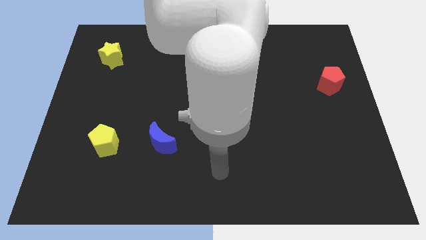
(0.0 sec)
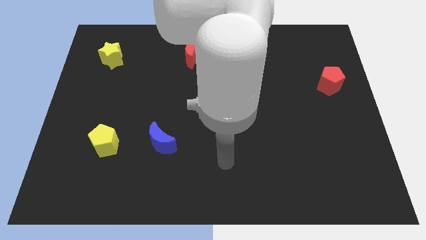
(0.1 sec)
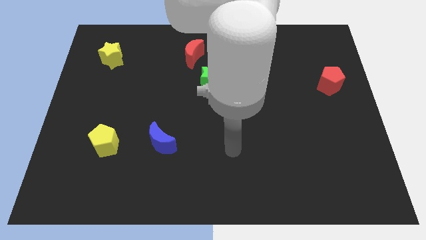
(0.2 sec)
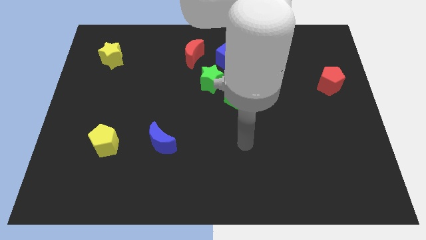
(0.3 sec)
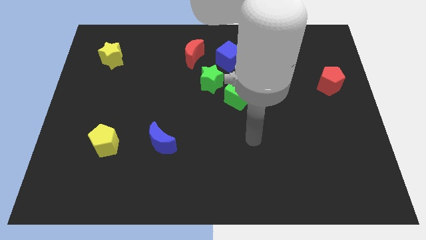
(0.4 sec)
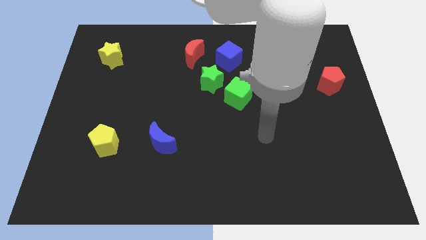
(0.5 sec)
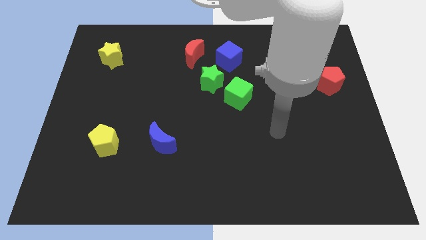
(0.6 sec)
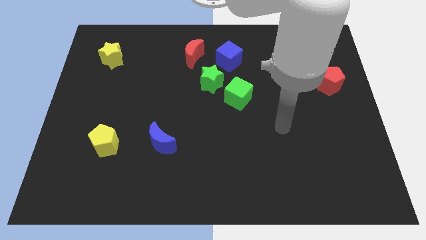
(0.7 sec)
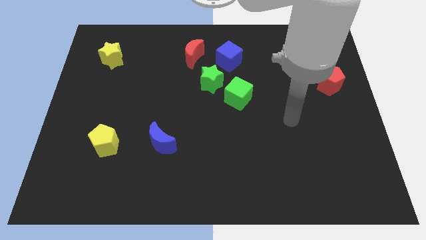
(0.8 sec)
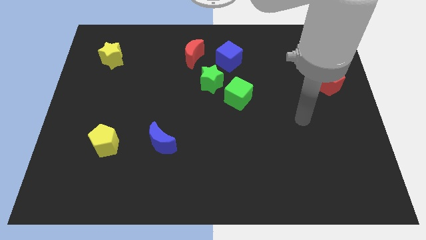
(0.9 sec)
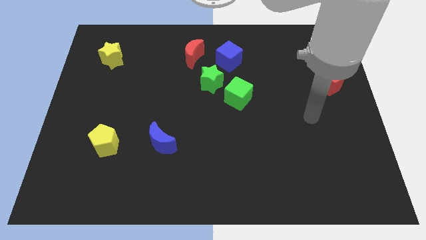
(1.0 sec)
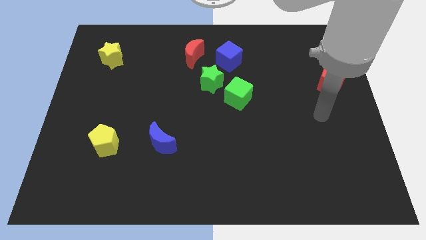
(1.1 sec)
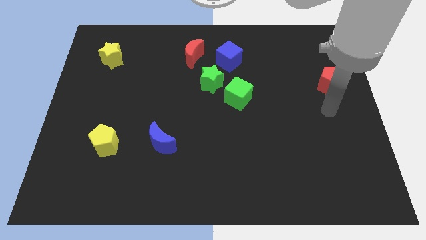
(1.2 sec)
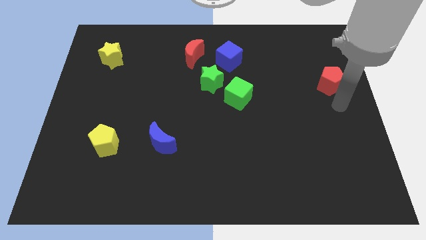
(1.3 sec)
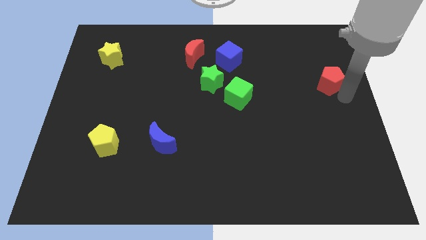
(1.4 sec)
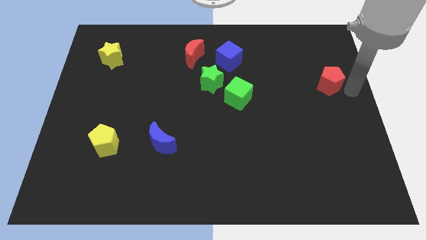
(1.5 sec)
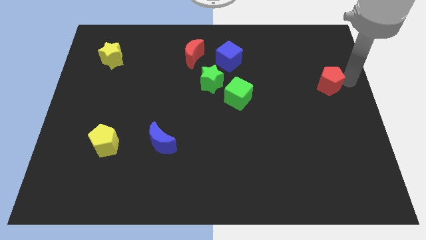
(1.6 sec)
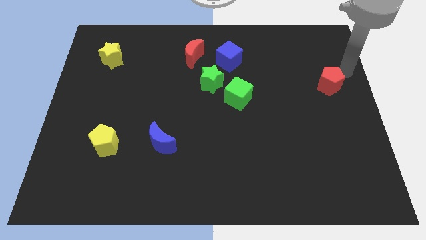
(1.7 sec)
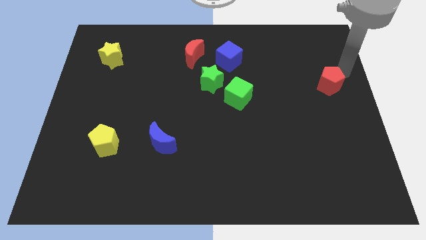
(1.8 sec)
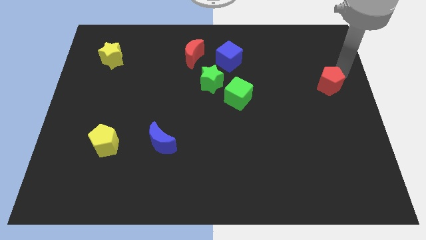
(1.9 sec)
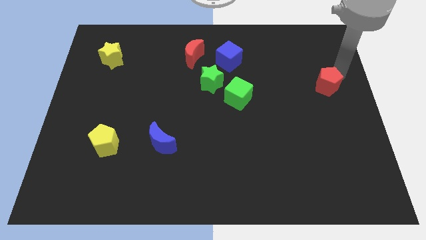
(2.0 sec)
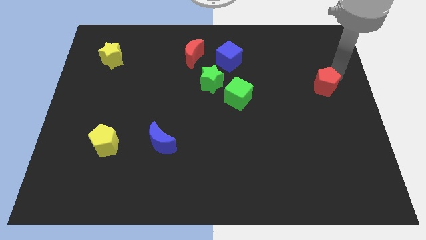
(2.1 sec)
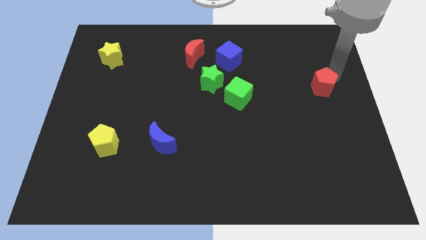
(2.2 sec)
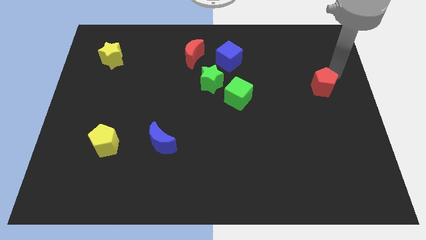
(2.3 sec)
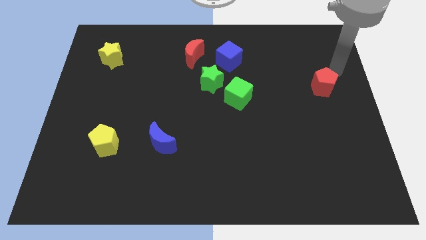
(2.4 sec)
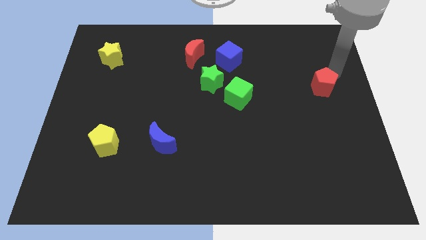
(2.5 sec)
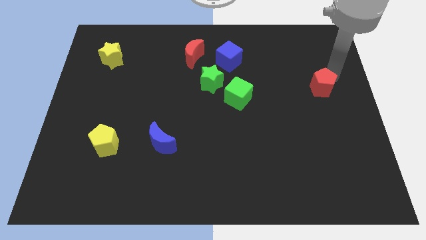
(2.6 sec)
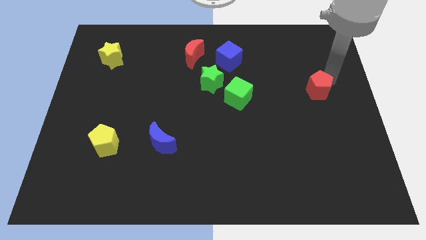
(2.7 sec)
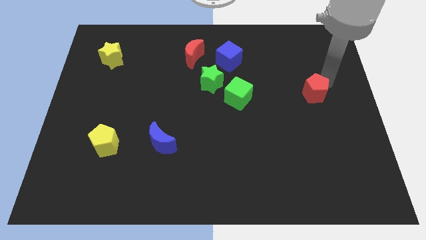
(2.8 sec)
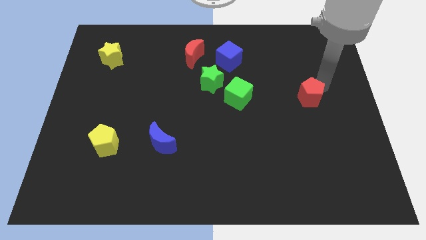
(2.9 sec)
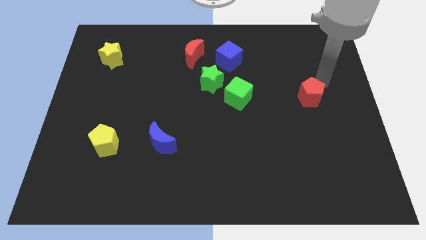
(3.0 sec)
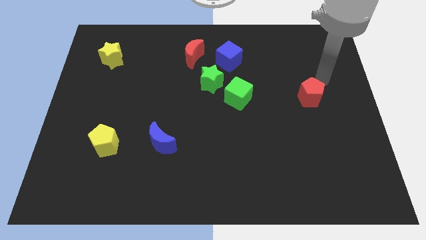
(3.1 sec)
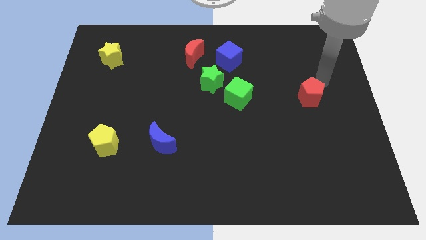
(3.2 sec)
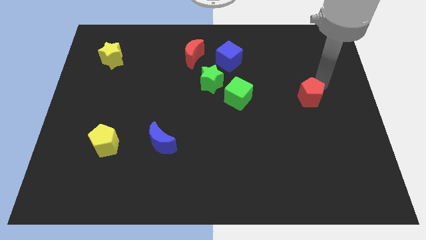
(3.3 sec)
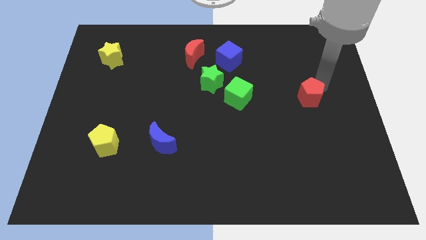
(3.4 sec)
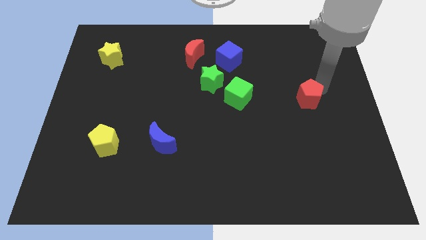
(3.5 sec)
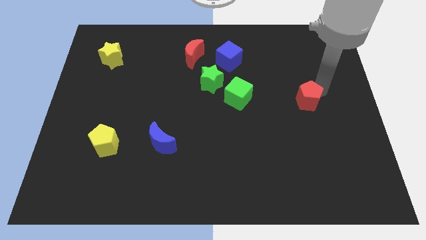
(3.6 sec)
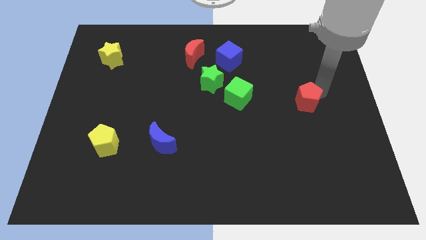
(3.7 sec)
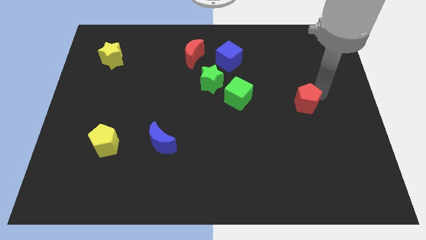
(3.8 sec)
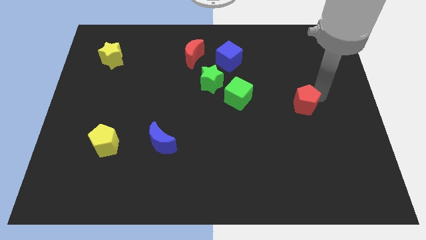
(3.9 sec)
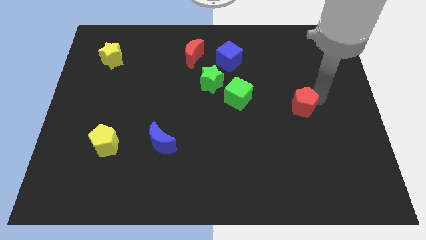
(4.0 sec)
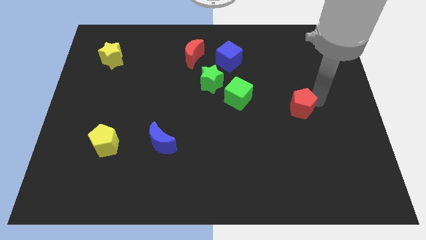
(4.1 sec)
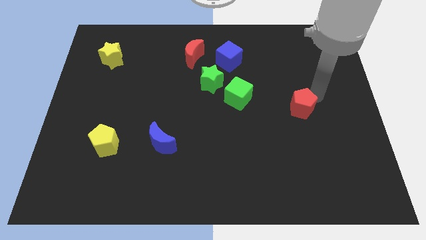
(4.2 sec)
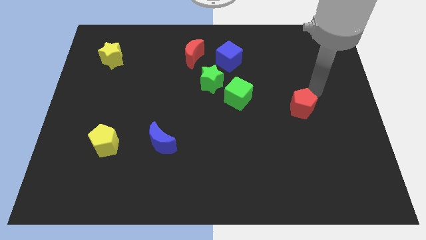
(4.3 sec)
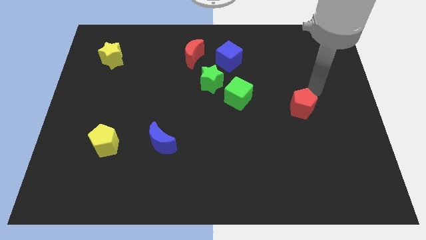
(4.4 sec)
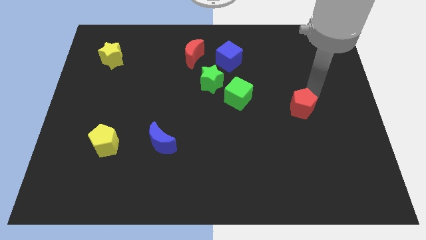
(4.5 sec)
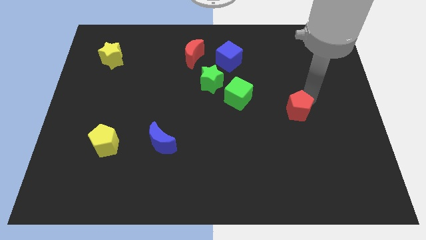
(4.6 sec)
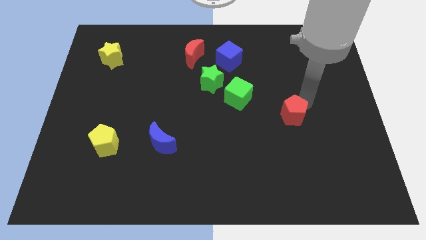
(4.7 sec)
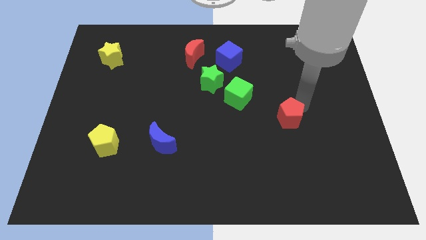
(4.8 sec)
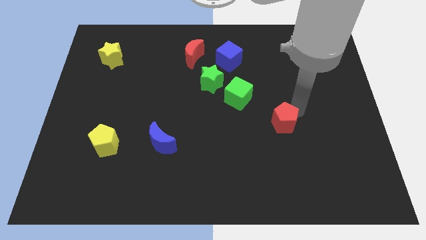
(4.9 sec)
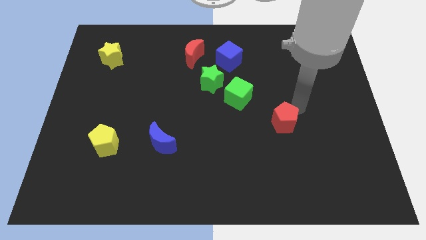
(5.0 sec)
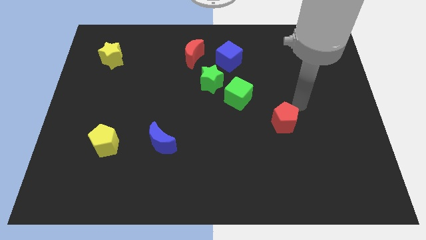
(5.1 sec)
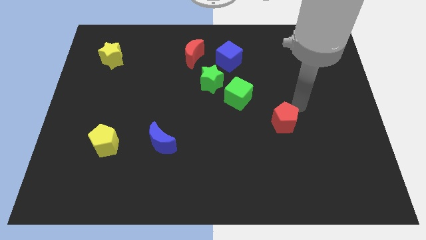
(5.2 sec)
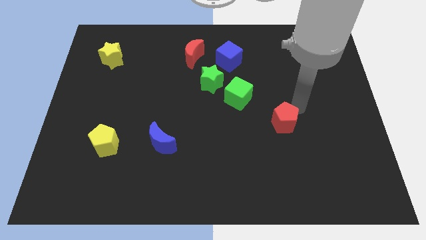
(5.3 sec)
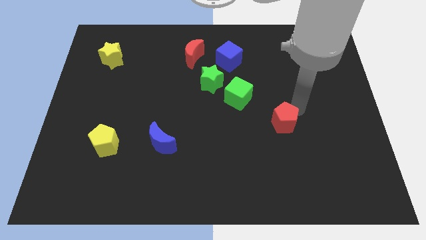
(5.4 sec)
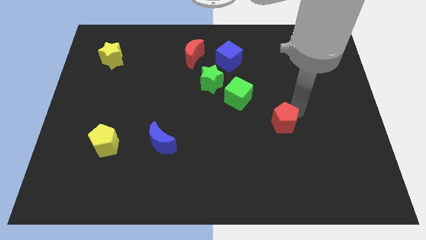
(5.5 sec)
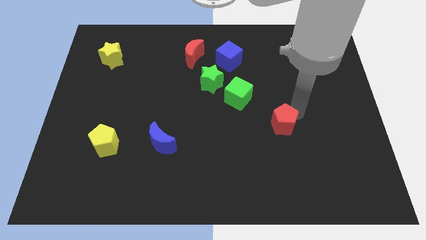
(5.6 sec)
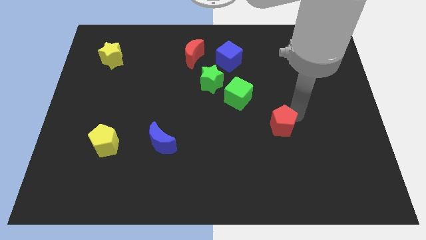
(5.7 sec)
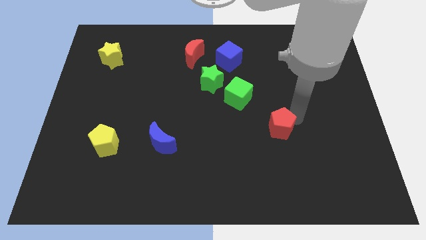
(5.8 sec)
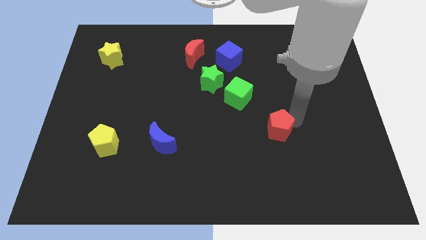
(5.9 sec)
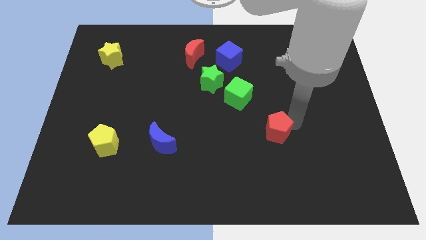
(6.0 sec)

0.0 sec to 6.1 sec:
push the red pentagon down and to the left

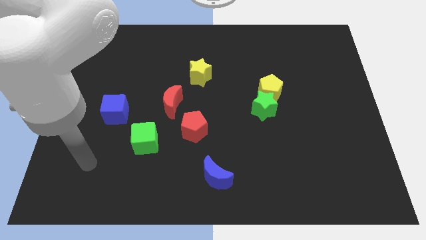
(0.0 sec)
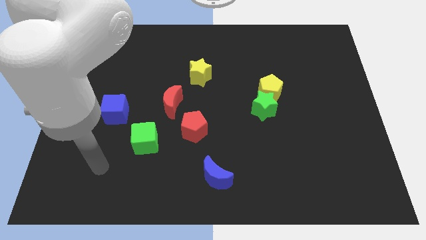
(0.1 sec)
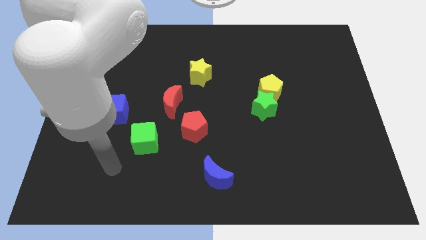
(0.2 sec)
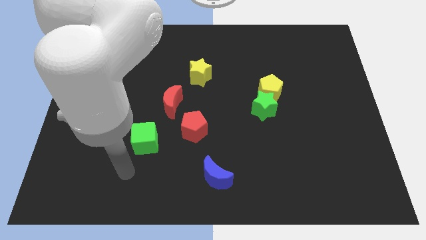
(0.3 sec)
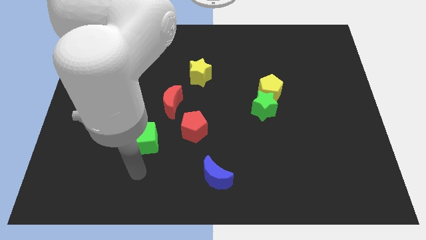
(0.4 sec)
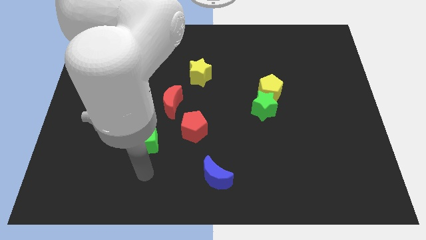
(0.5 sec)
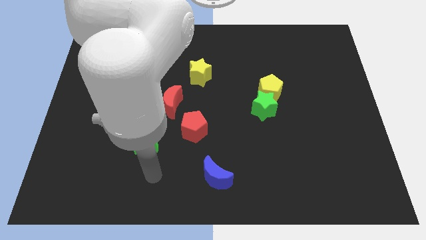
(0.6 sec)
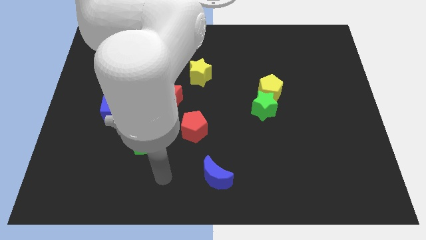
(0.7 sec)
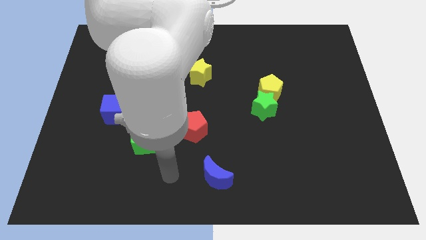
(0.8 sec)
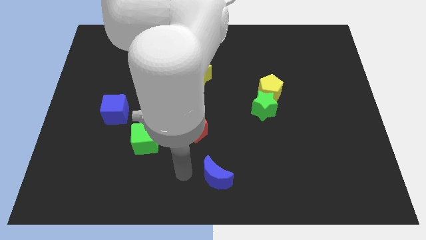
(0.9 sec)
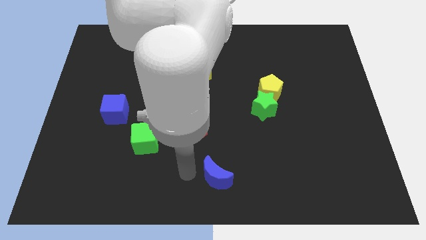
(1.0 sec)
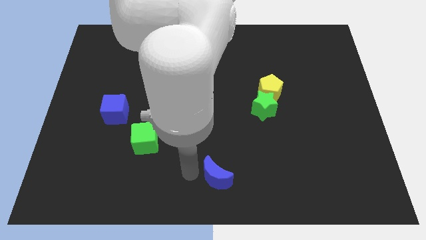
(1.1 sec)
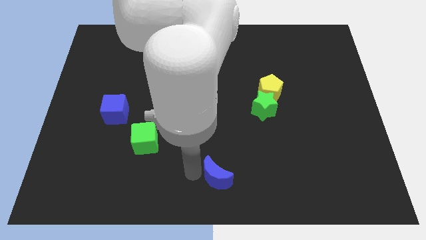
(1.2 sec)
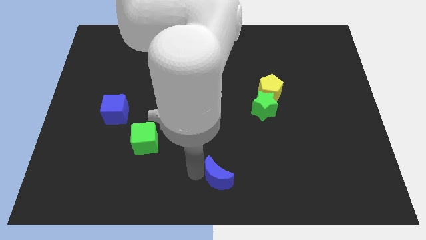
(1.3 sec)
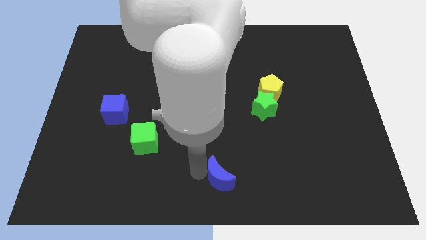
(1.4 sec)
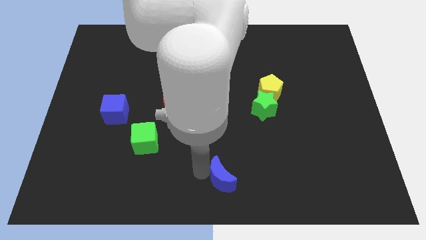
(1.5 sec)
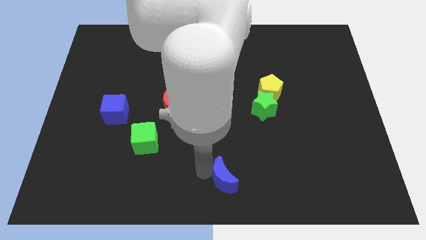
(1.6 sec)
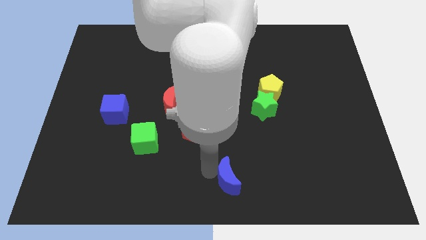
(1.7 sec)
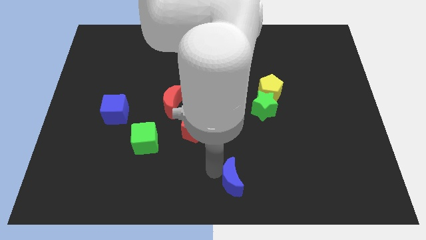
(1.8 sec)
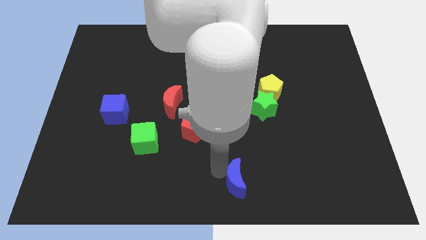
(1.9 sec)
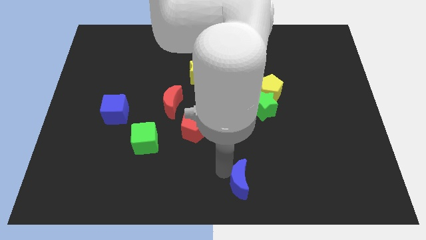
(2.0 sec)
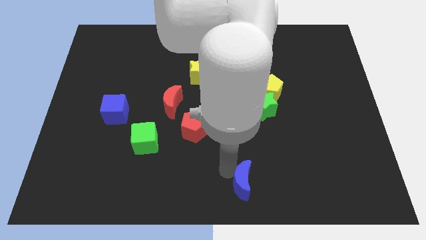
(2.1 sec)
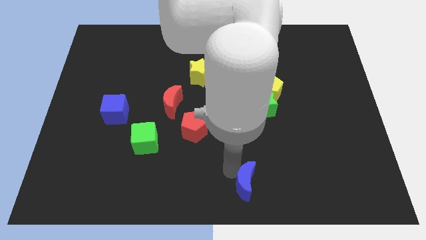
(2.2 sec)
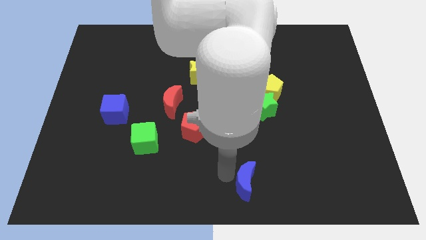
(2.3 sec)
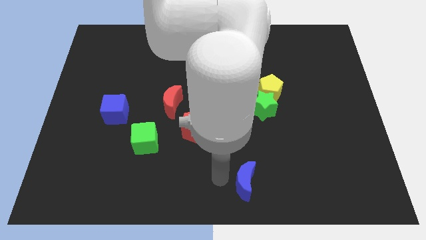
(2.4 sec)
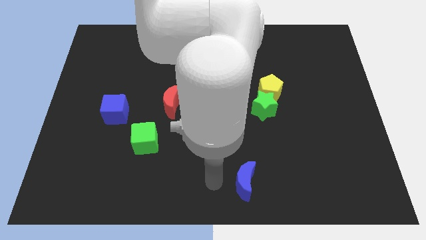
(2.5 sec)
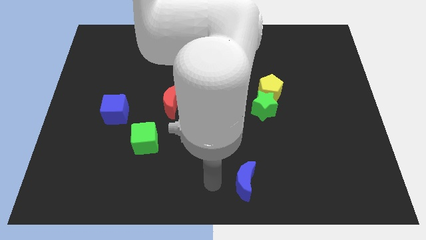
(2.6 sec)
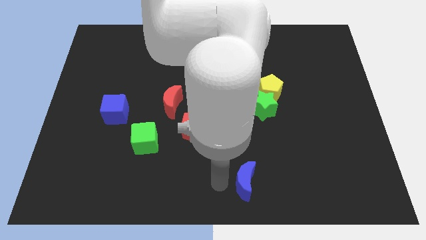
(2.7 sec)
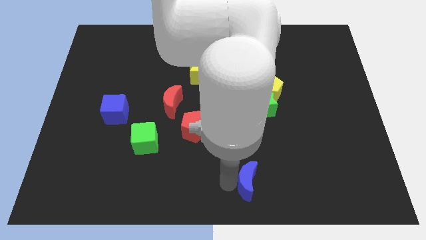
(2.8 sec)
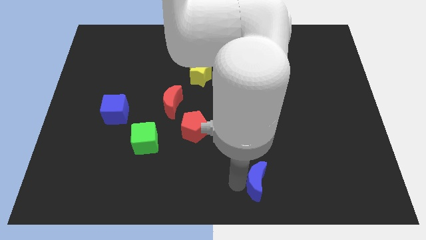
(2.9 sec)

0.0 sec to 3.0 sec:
slightly slide the blue moon right
